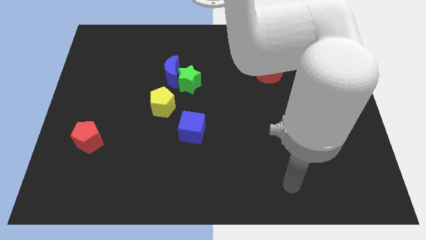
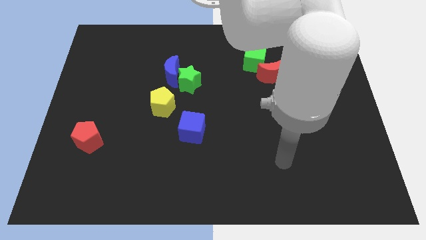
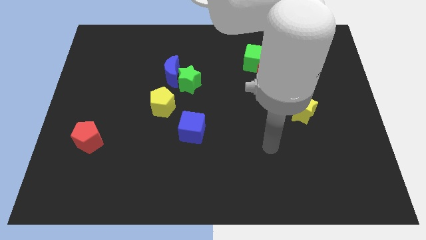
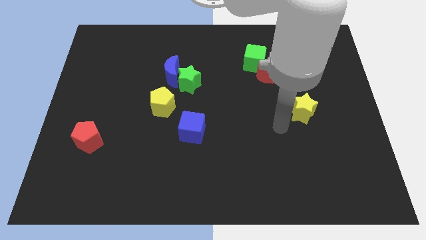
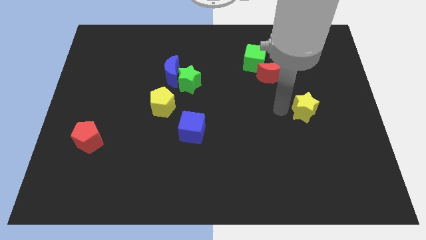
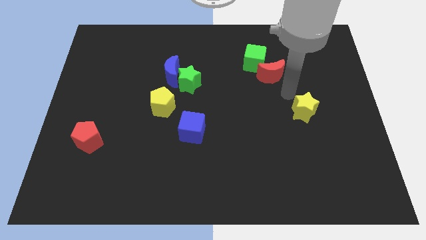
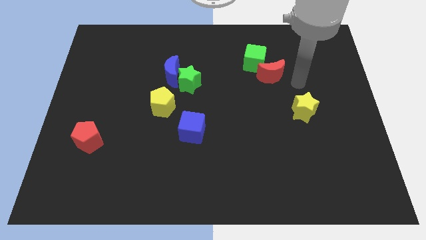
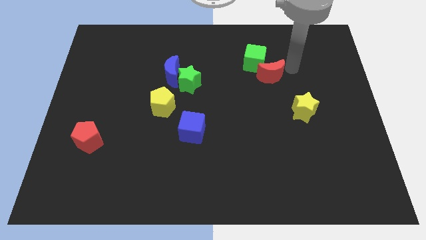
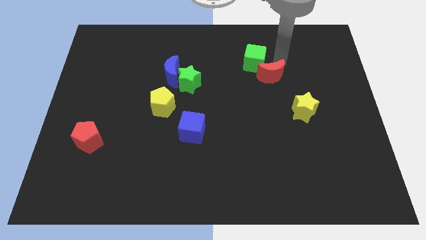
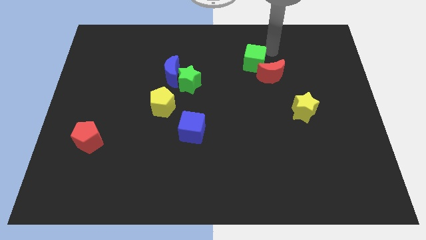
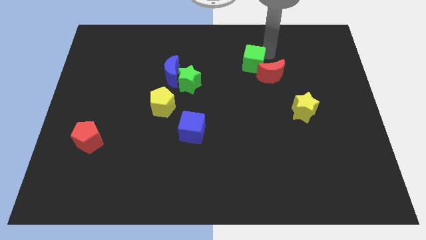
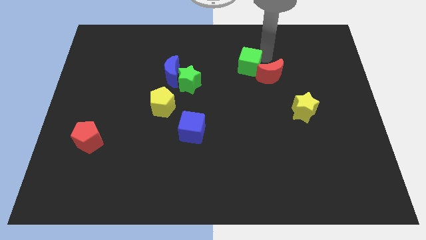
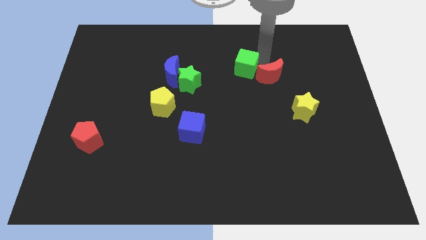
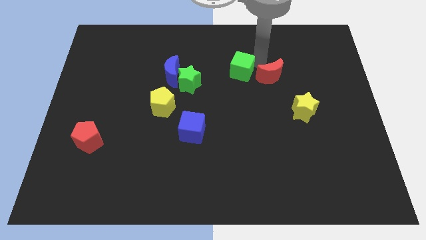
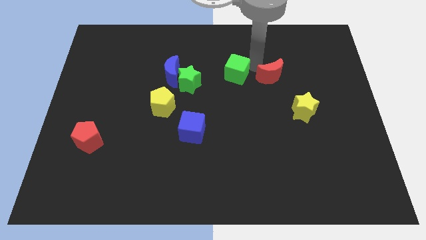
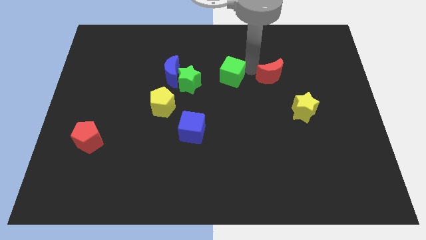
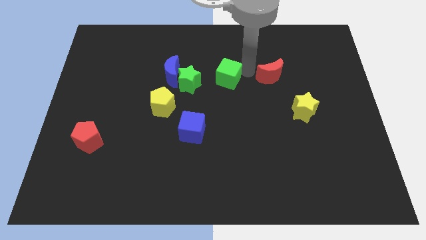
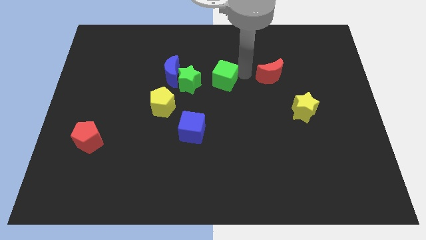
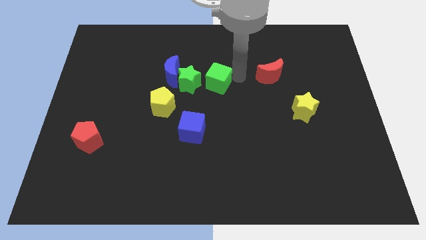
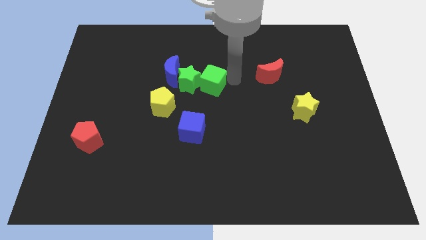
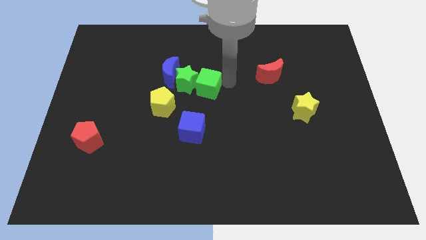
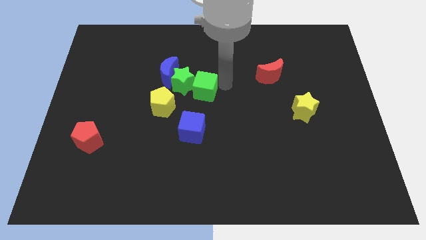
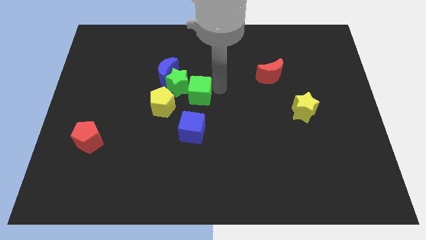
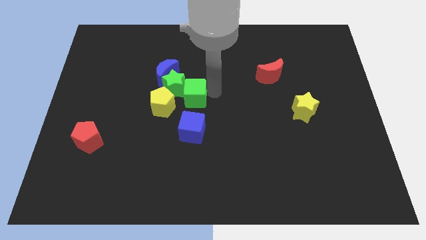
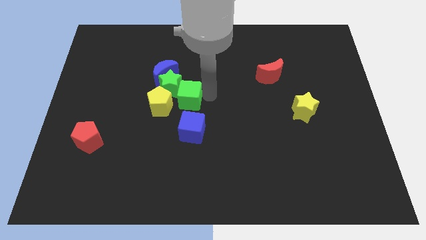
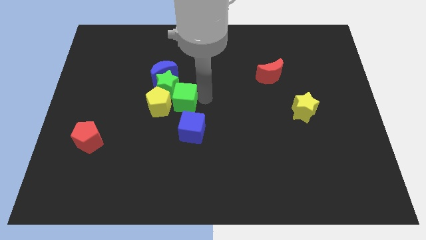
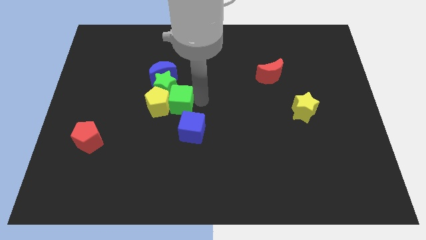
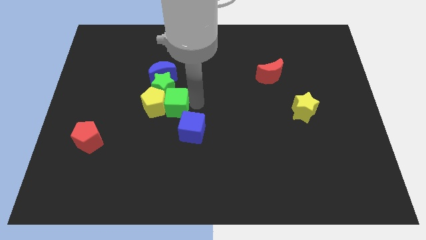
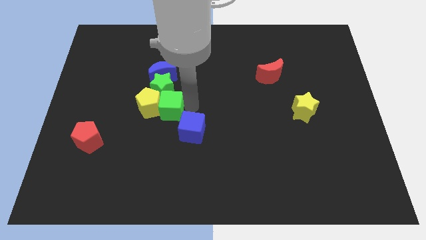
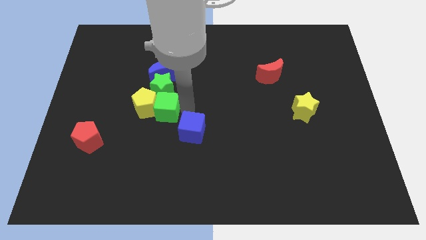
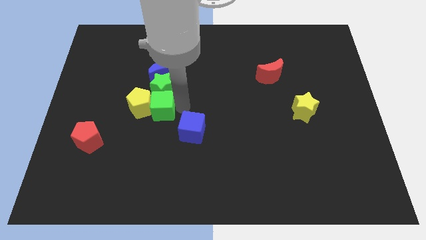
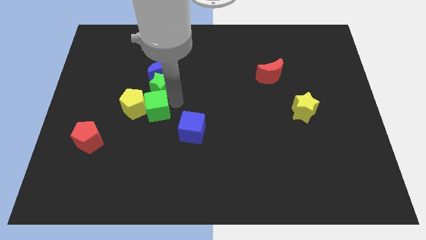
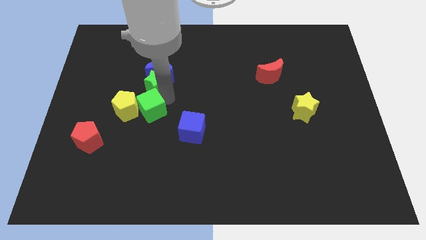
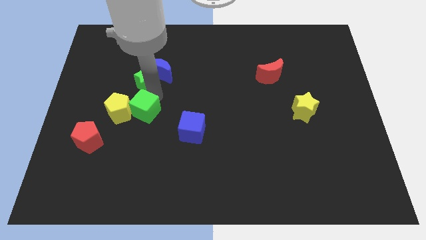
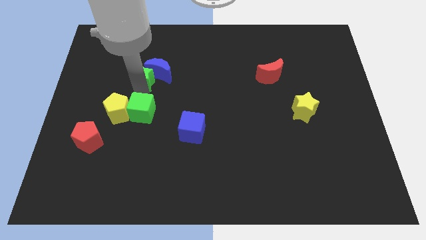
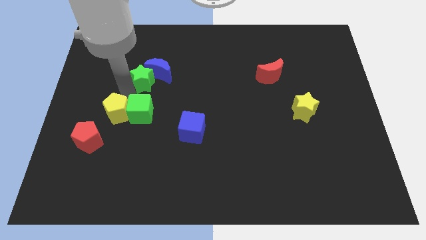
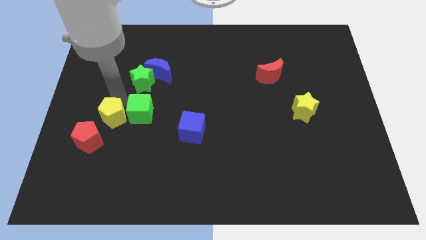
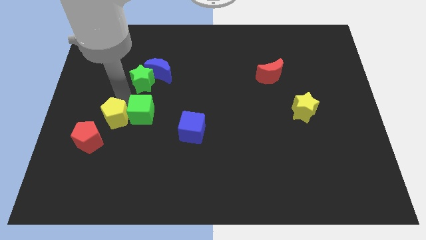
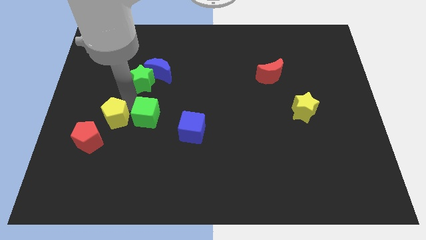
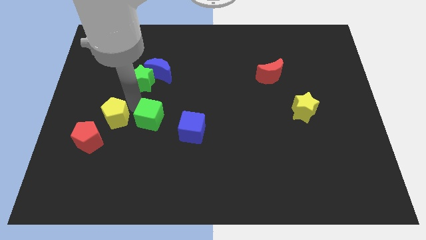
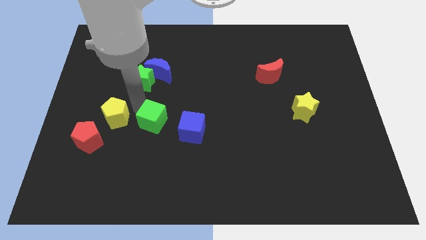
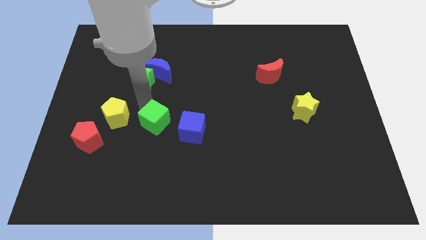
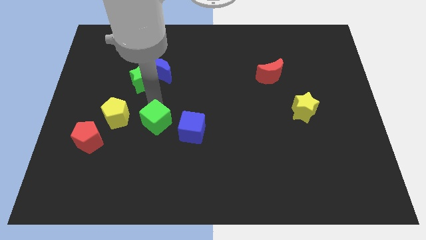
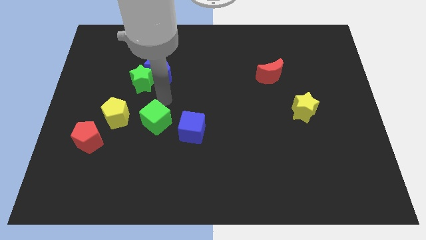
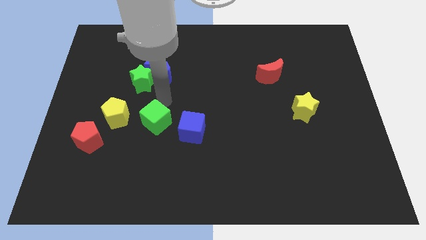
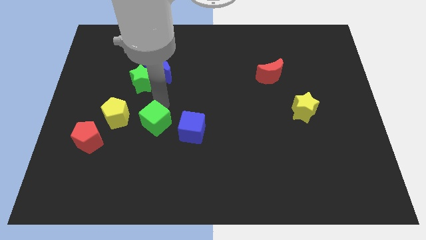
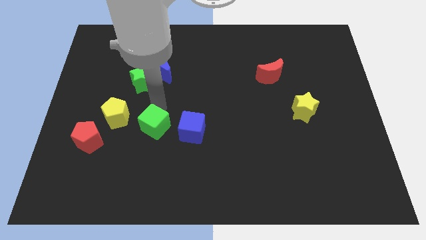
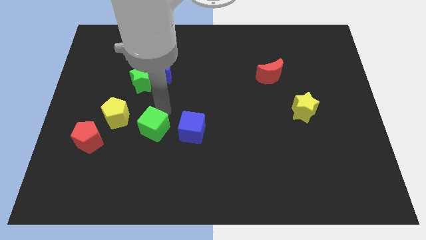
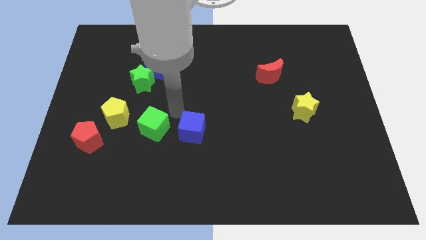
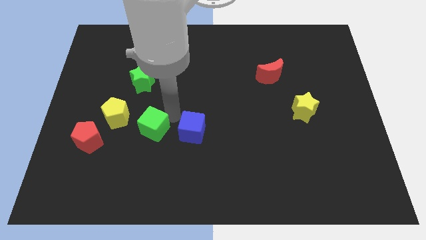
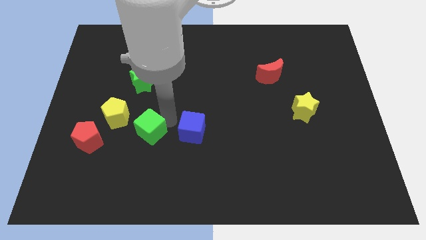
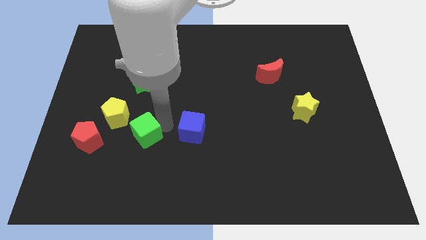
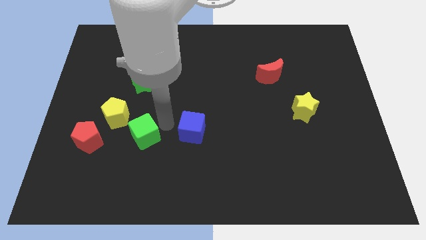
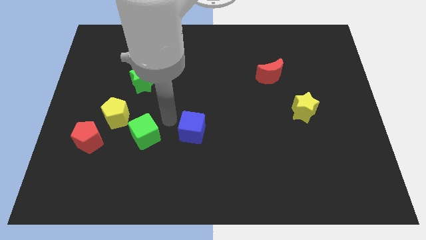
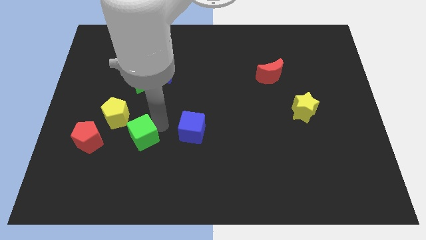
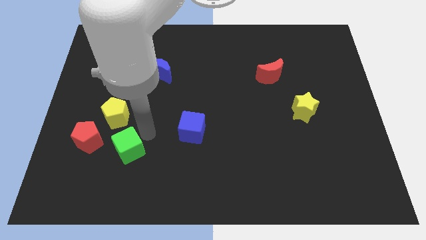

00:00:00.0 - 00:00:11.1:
push the green cube diagonally down and to the right of the red pentagon

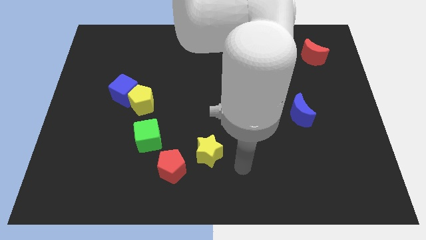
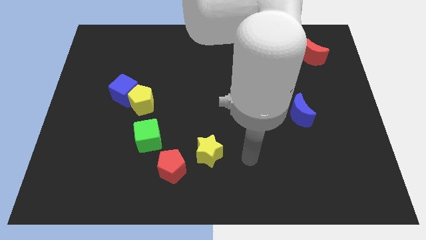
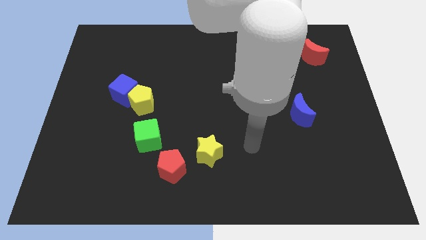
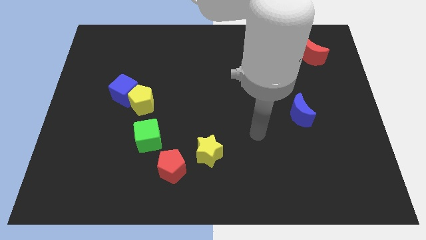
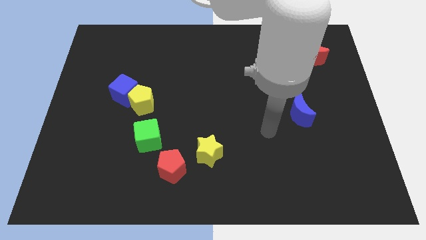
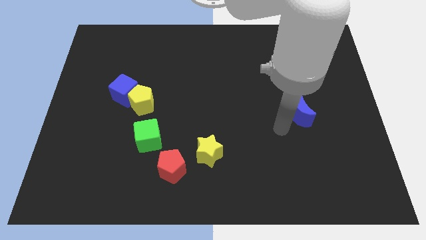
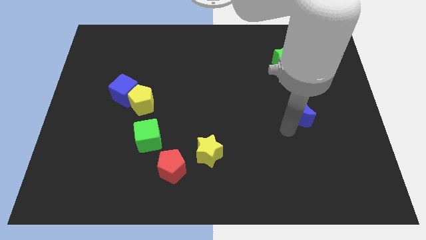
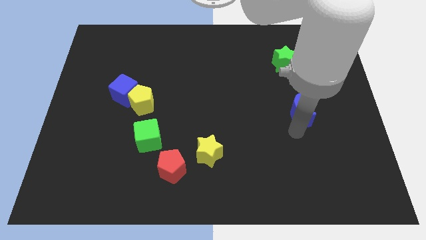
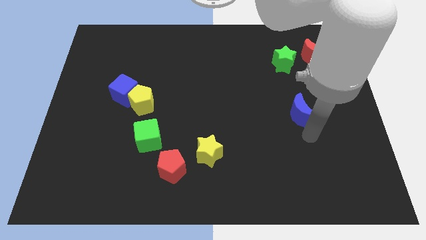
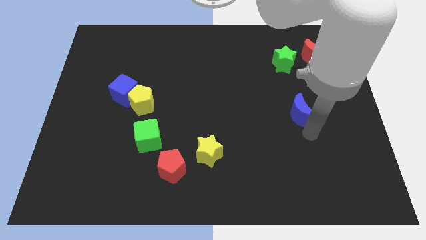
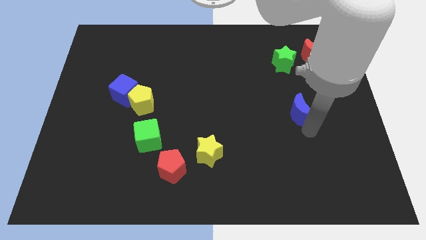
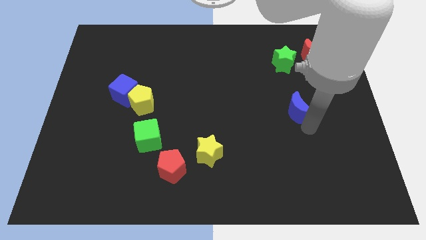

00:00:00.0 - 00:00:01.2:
slide the blue moon to the bottom side of the green star

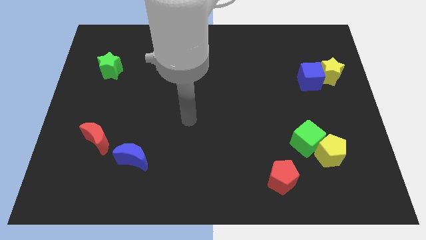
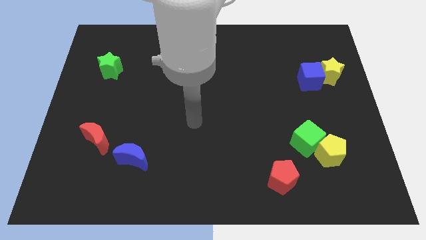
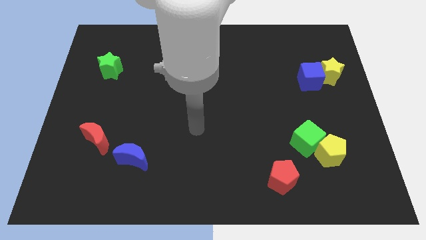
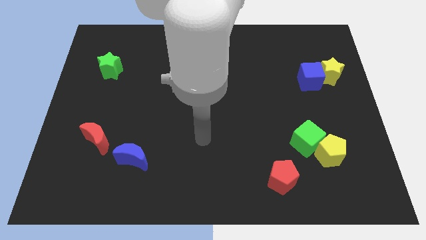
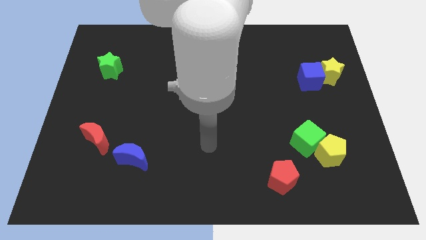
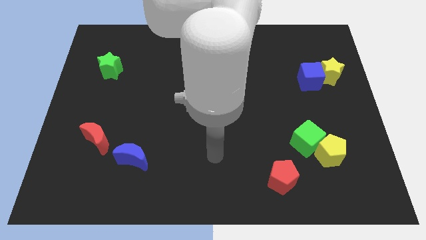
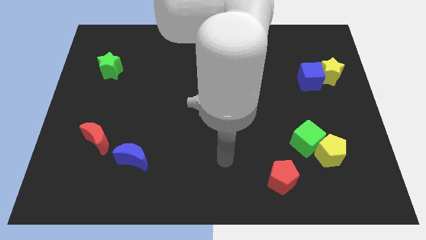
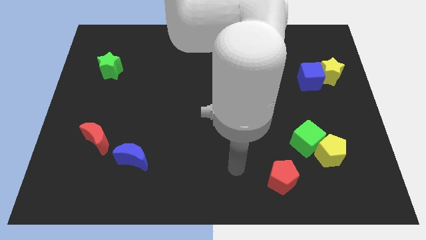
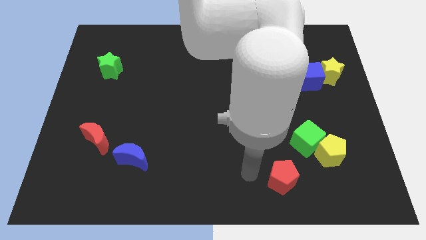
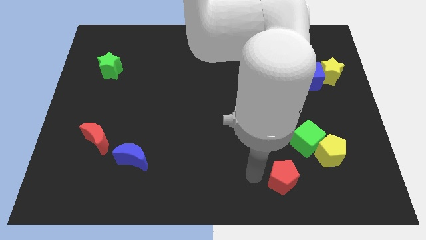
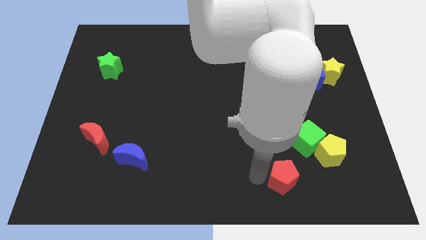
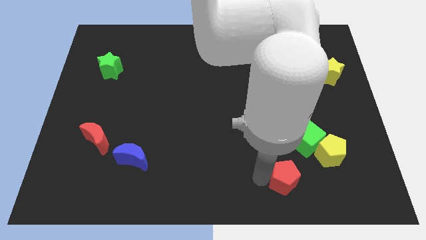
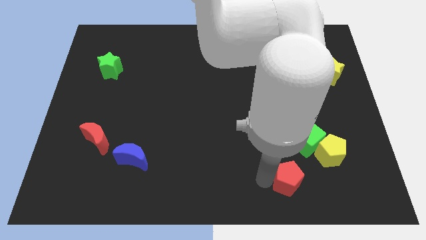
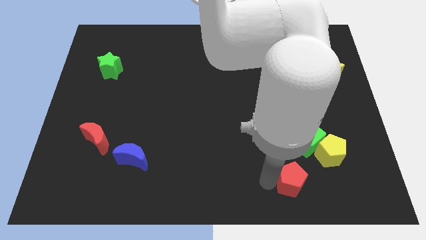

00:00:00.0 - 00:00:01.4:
put the red pentagon to the bottom side of the green cube
